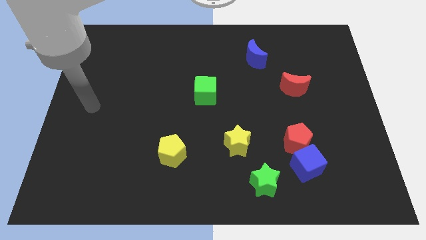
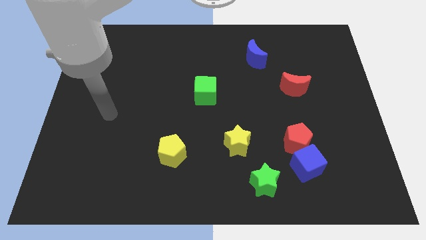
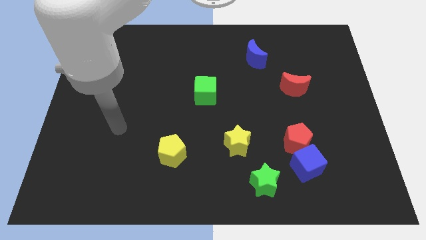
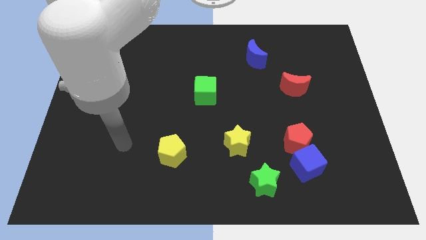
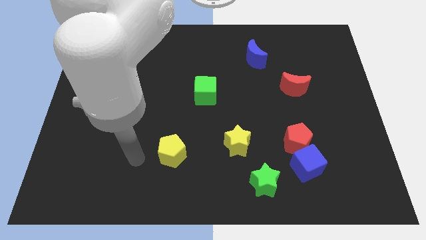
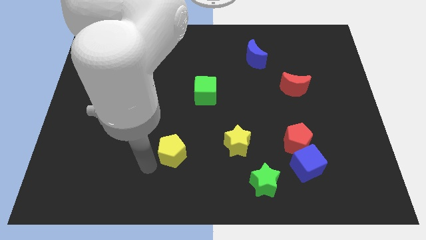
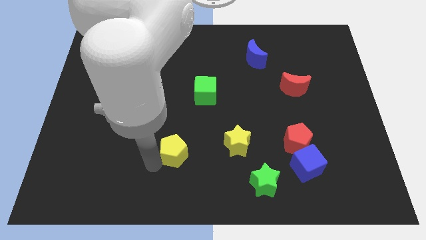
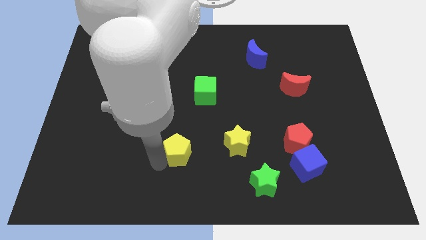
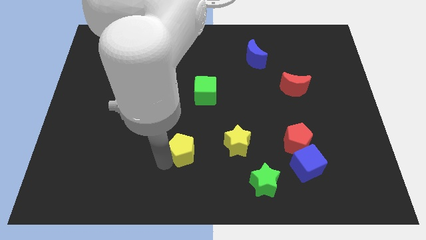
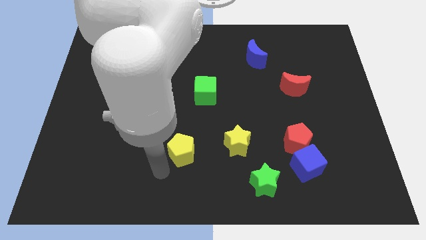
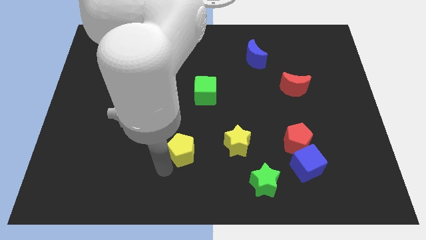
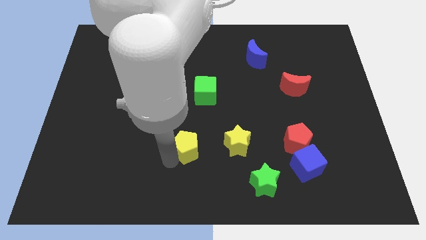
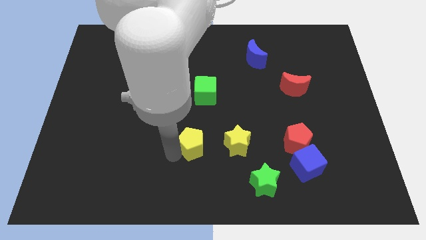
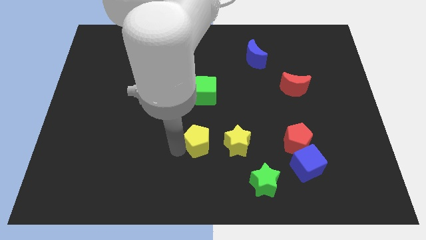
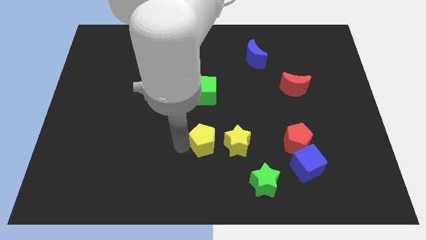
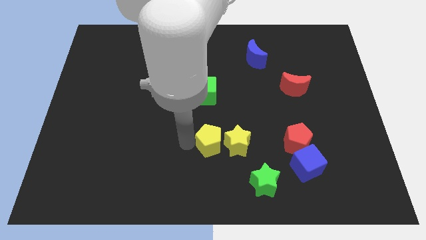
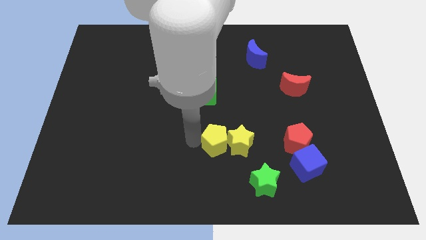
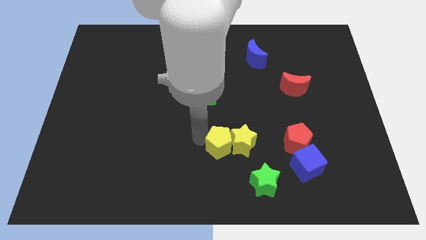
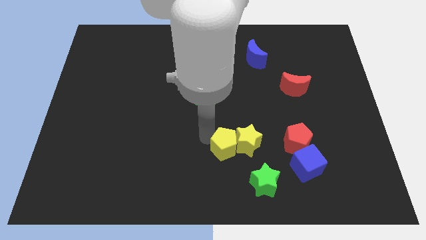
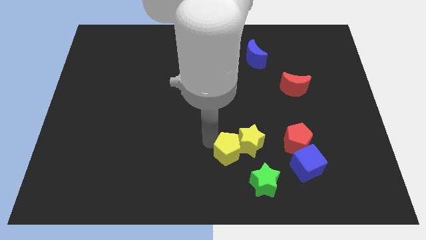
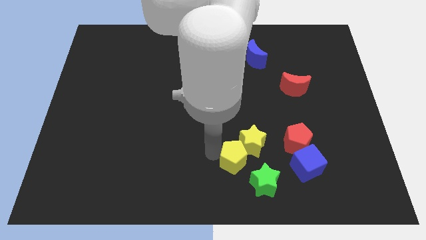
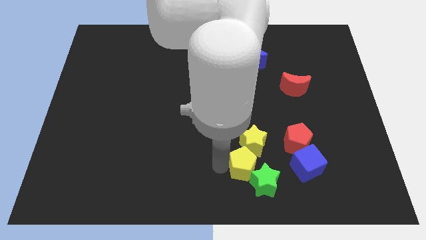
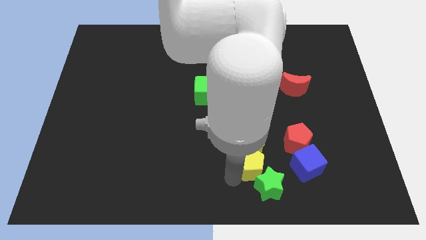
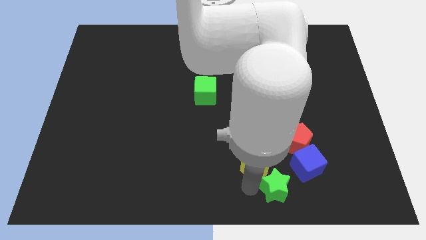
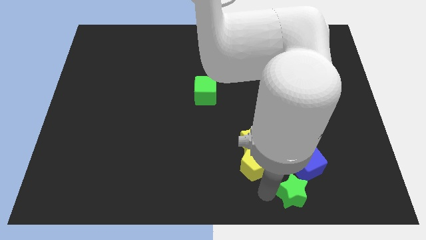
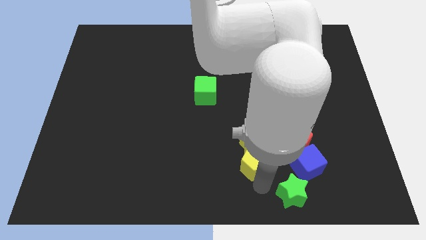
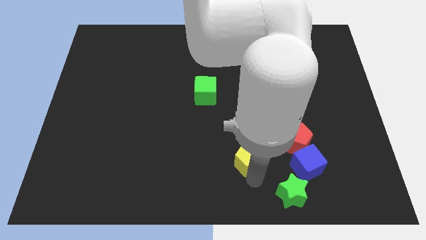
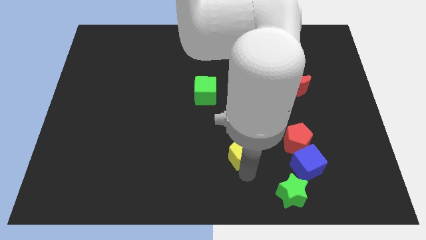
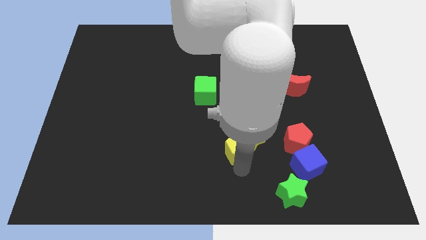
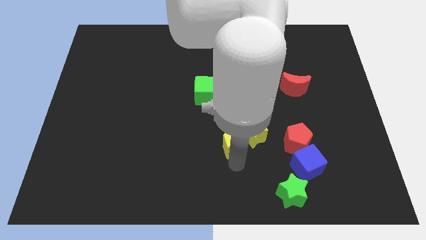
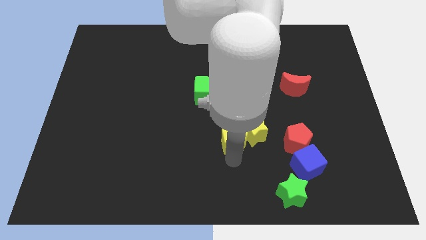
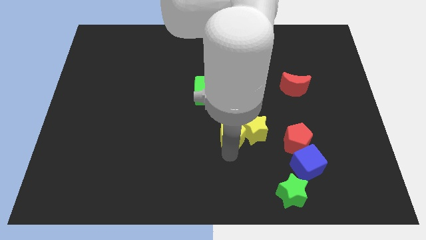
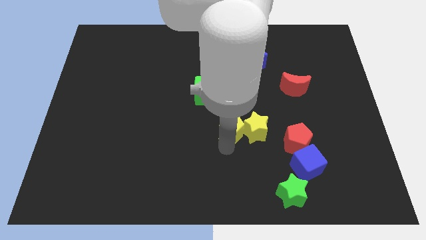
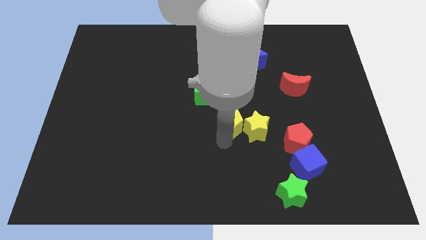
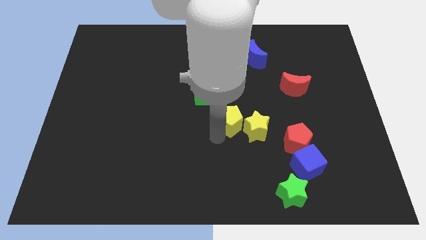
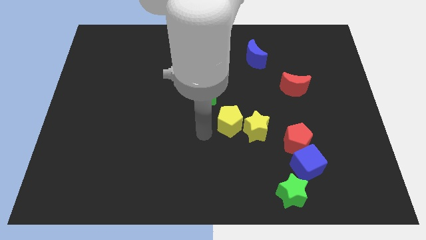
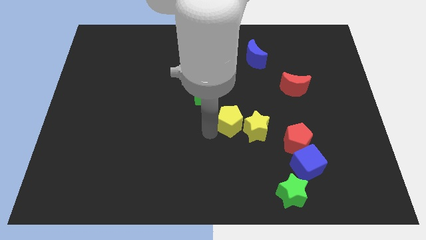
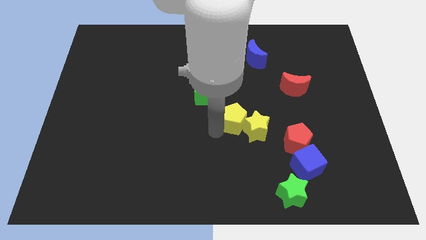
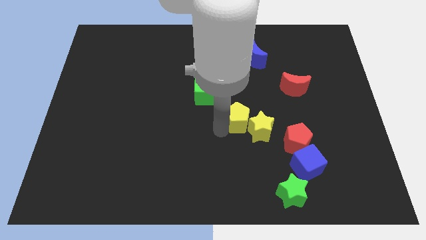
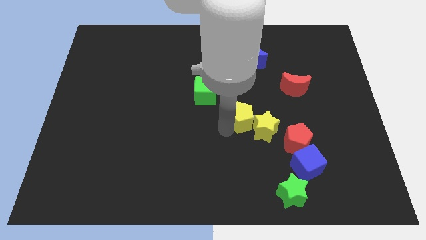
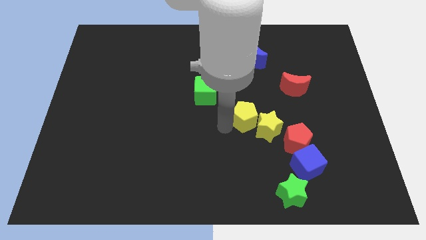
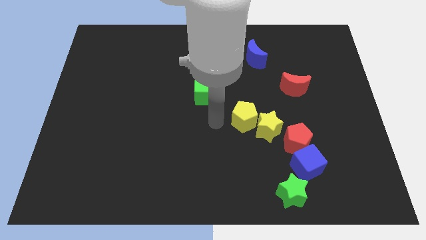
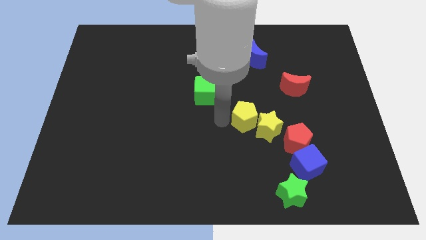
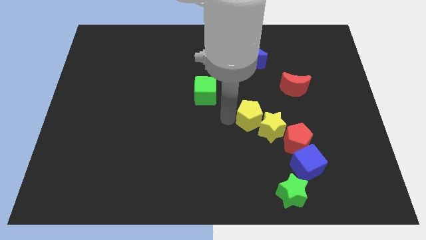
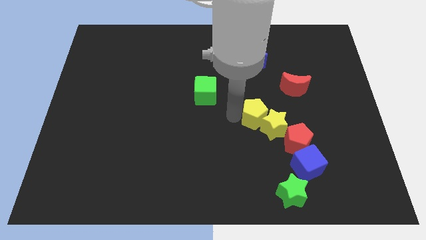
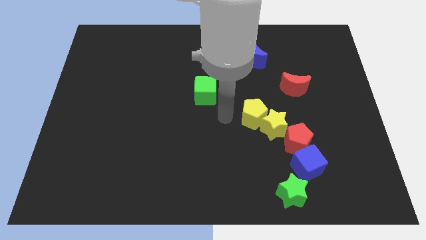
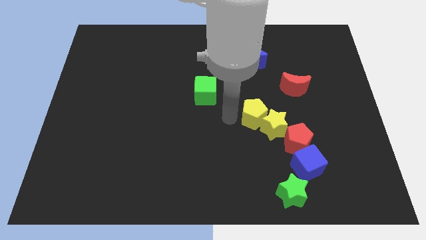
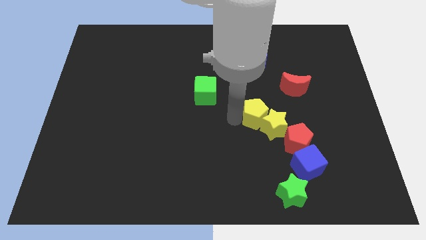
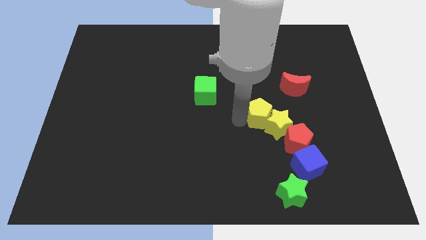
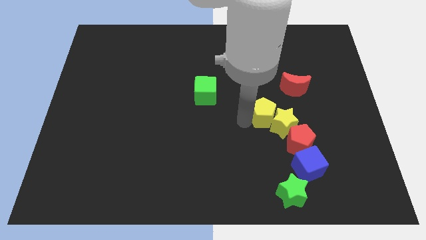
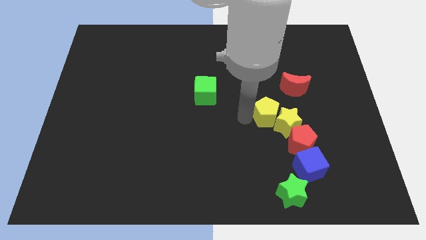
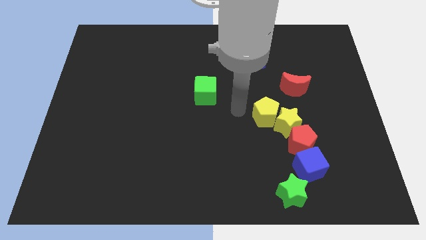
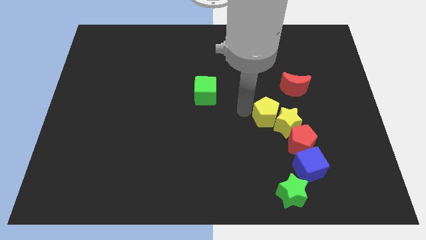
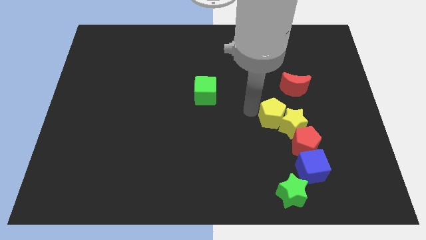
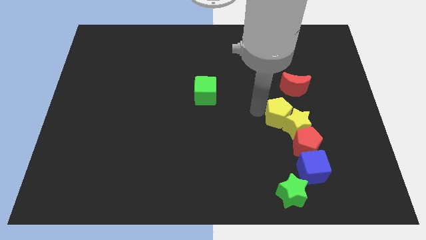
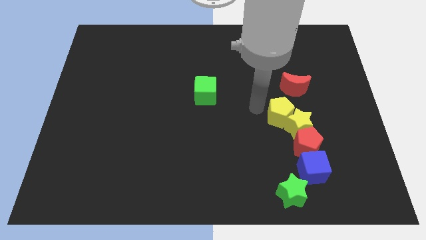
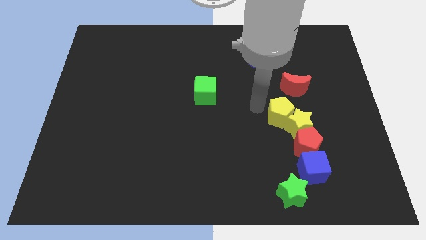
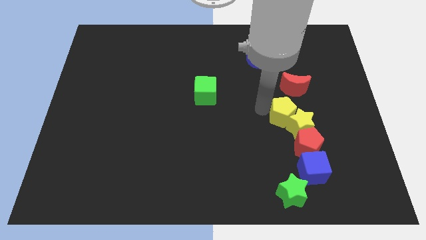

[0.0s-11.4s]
slide the yellow pentagon to the right

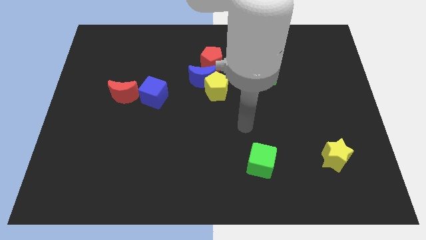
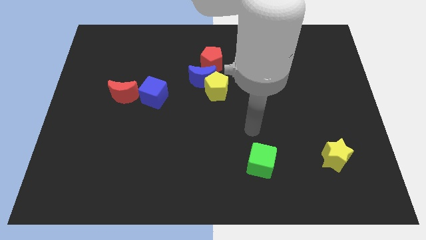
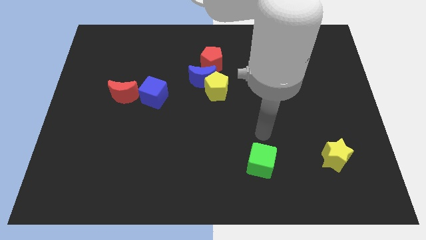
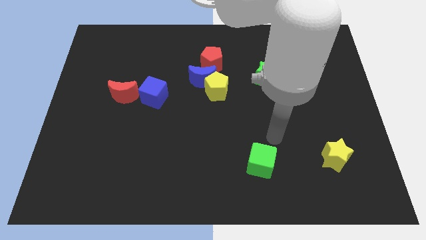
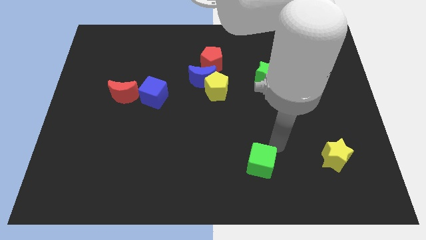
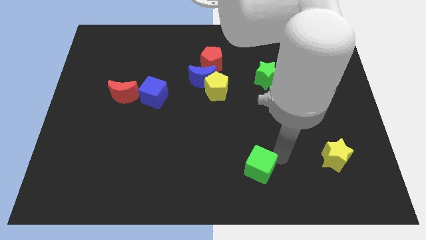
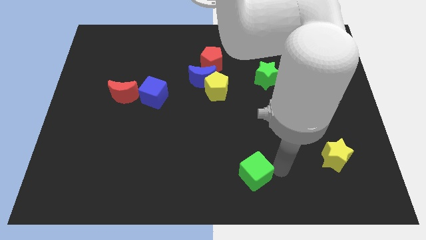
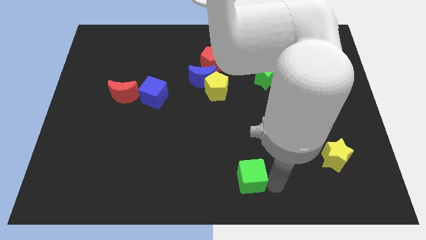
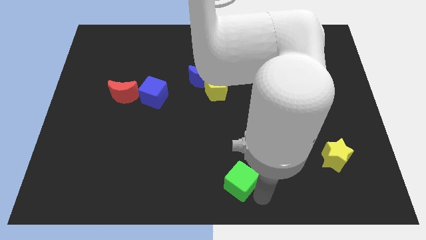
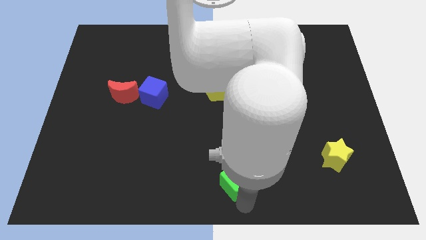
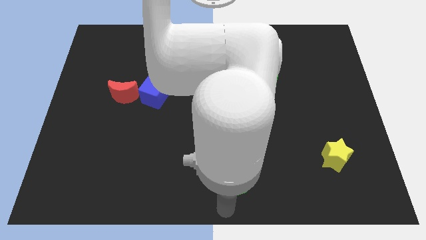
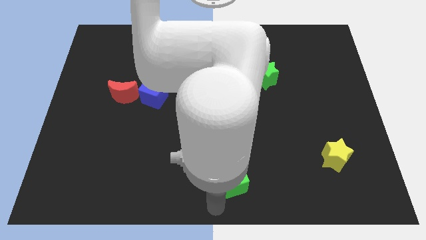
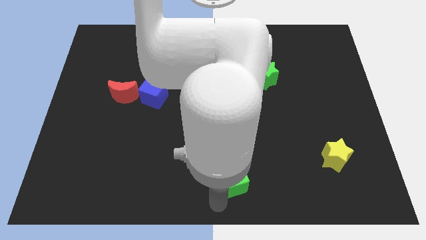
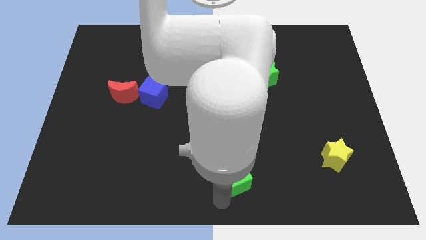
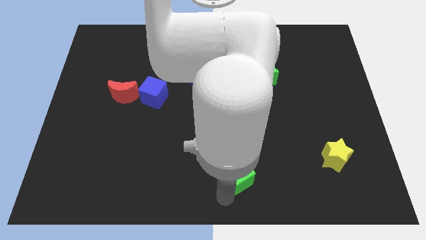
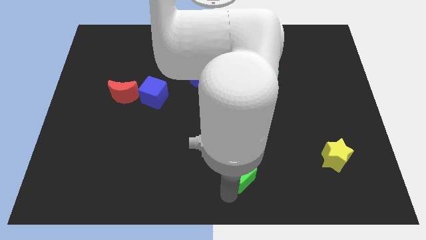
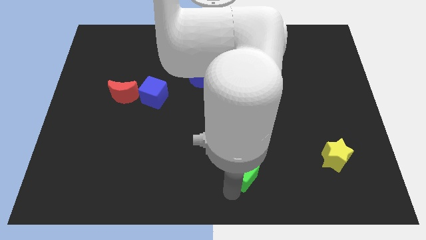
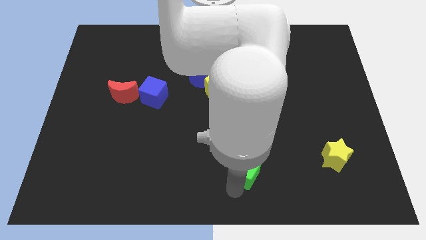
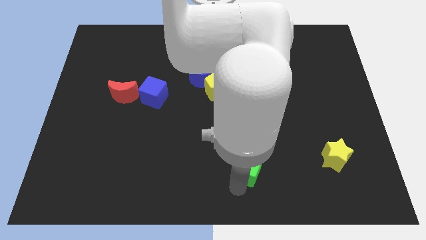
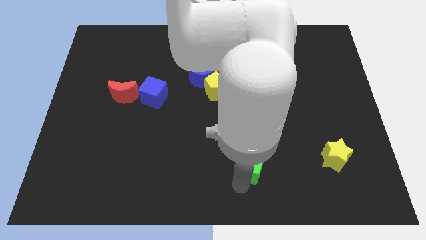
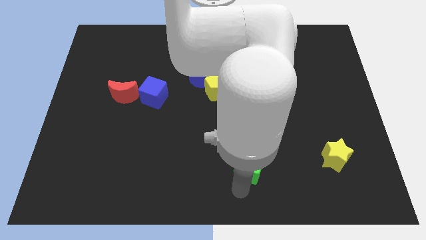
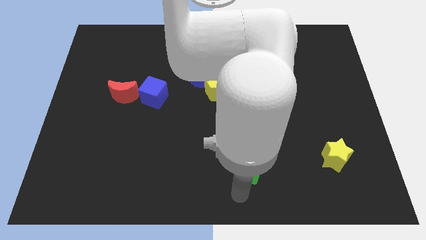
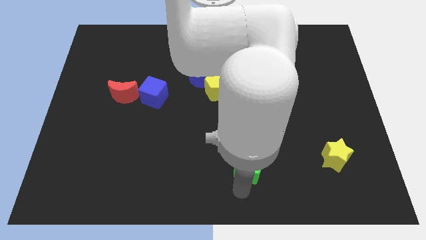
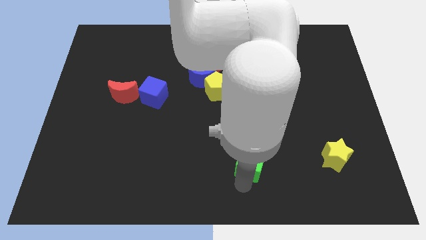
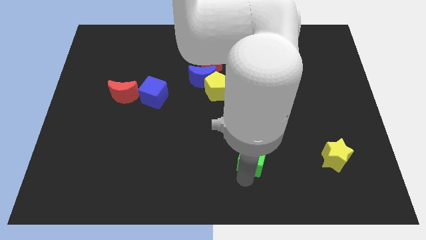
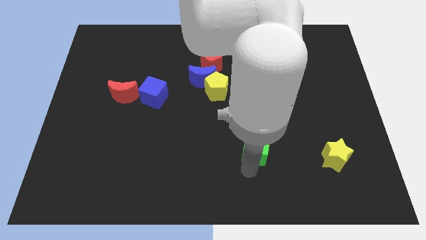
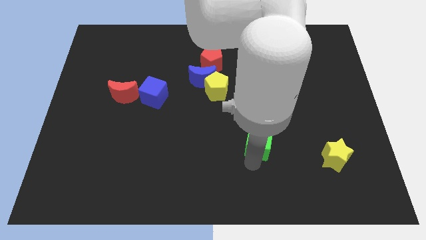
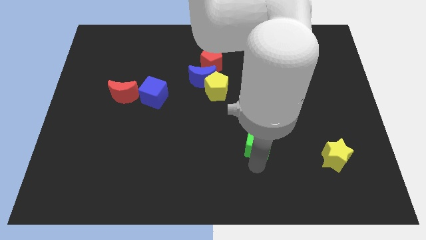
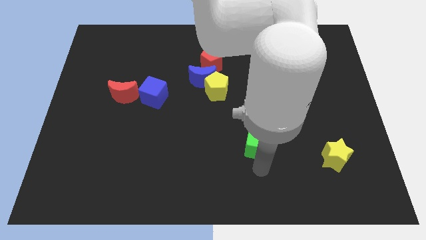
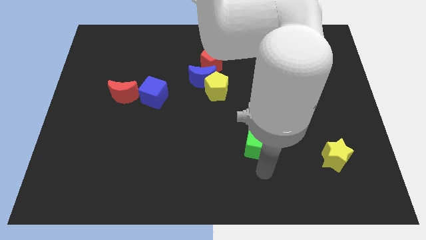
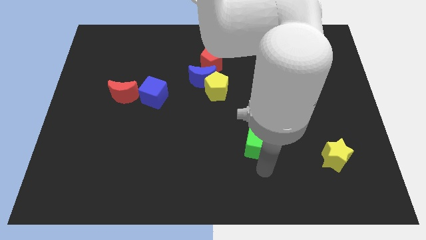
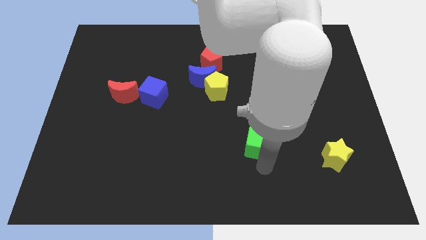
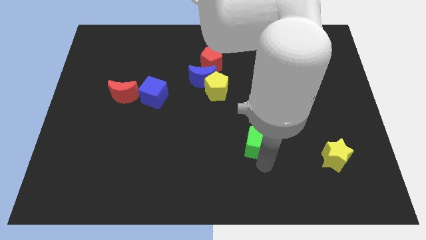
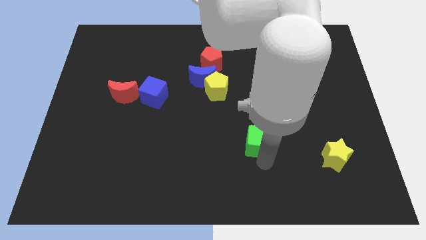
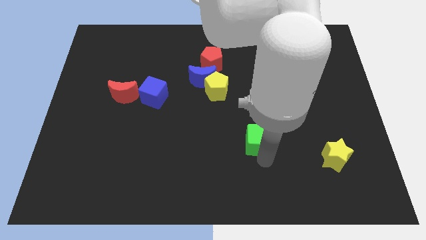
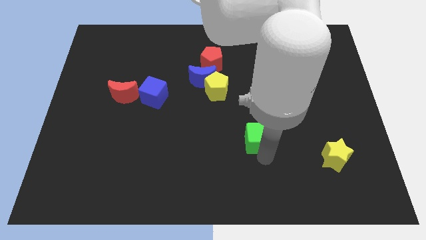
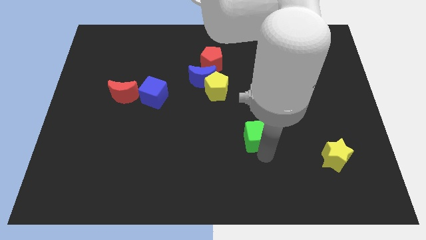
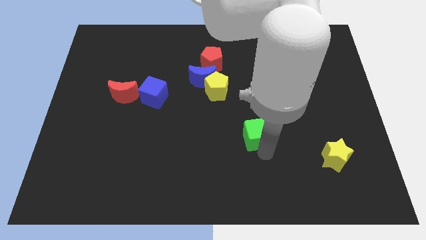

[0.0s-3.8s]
slightly slide the green cube upwards
